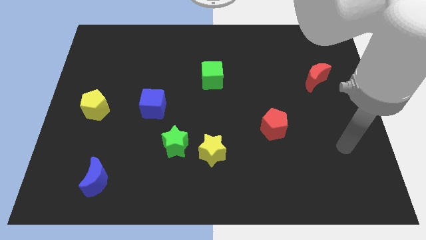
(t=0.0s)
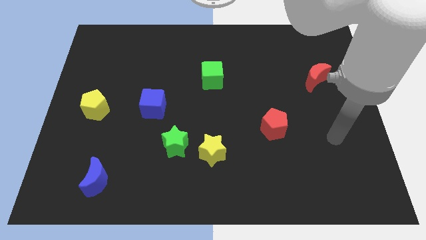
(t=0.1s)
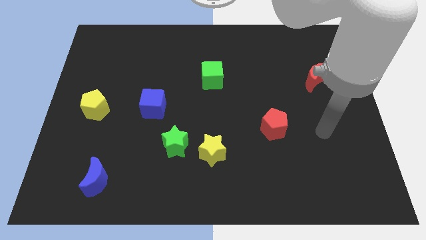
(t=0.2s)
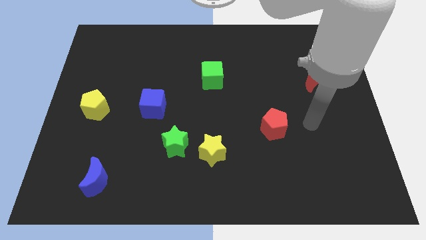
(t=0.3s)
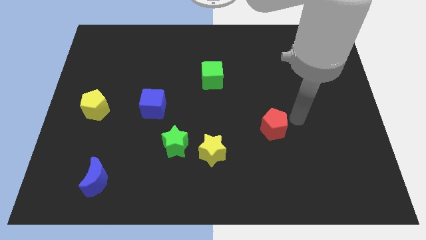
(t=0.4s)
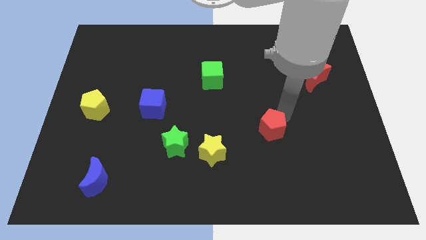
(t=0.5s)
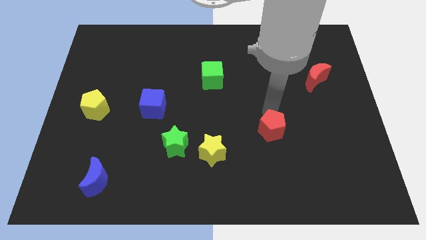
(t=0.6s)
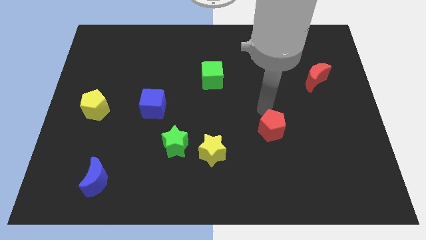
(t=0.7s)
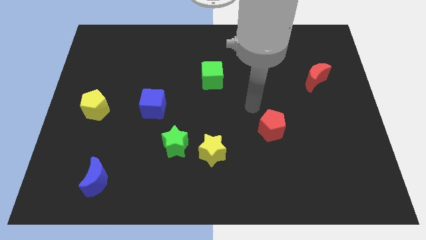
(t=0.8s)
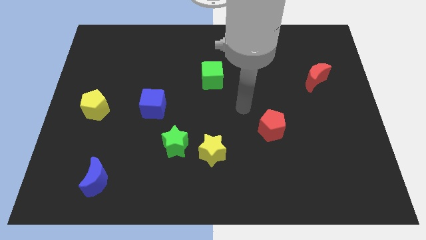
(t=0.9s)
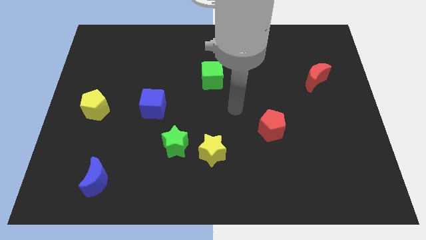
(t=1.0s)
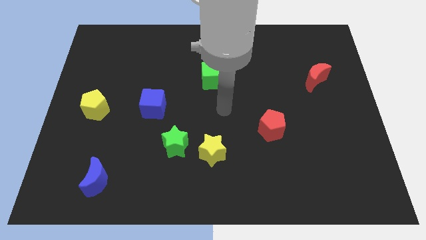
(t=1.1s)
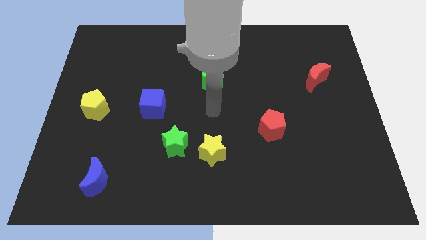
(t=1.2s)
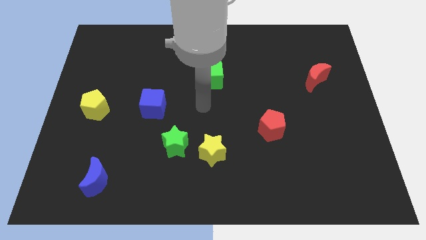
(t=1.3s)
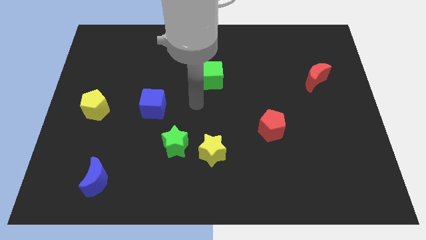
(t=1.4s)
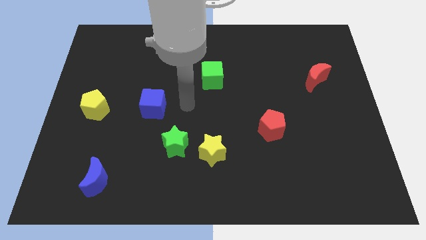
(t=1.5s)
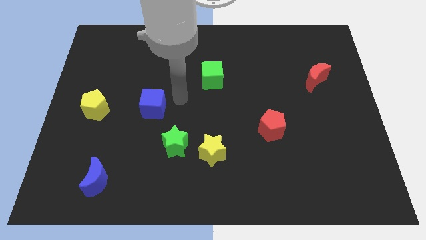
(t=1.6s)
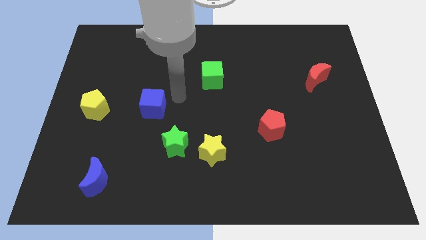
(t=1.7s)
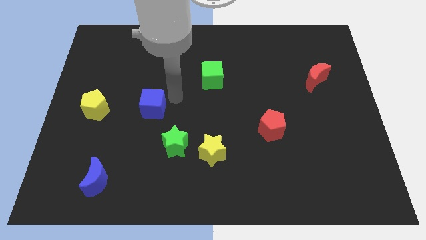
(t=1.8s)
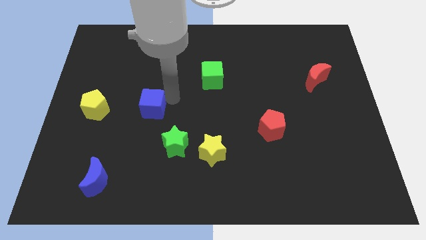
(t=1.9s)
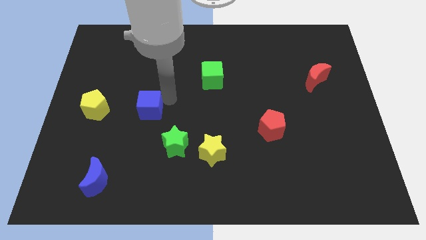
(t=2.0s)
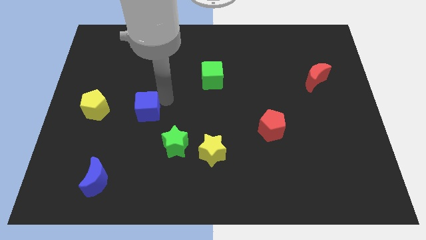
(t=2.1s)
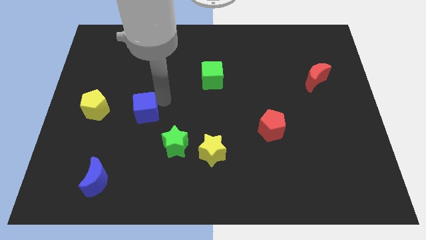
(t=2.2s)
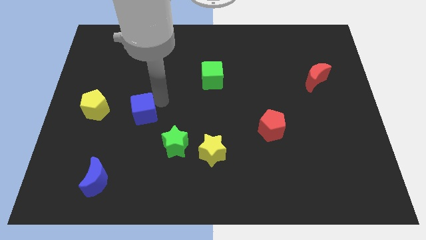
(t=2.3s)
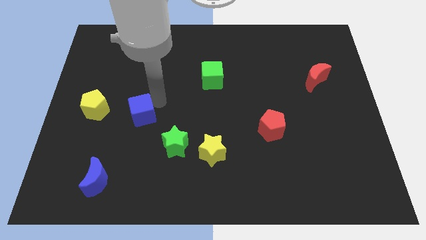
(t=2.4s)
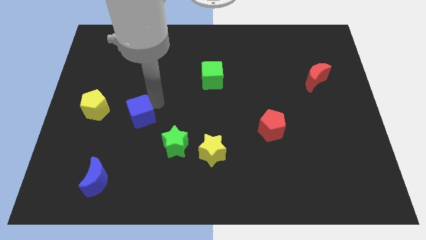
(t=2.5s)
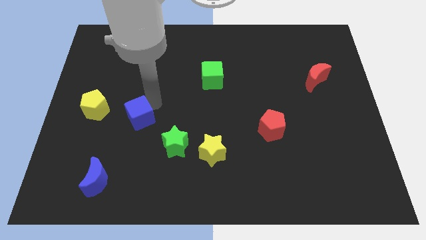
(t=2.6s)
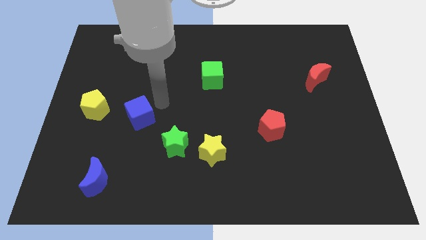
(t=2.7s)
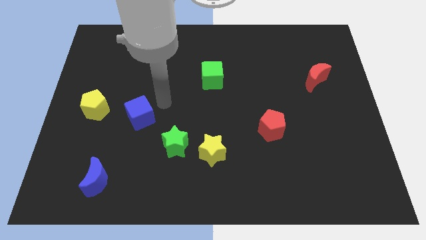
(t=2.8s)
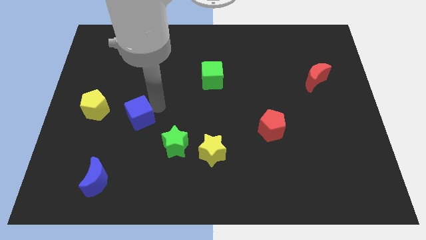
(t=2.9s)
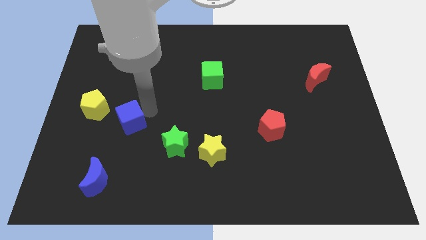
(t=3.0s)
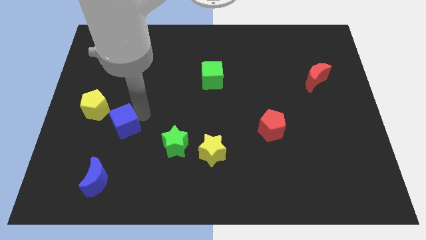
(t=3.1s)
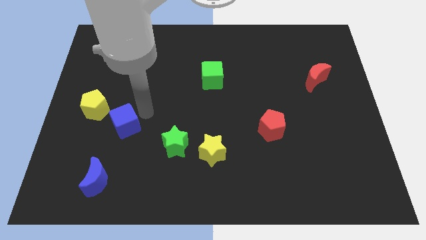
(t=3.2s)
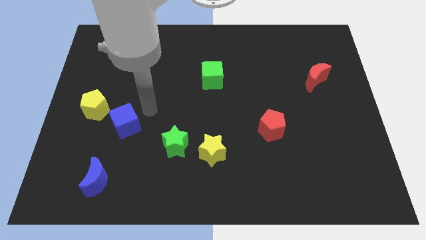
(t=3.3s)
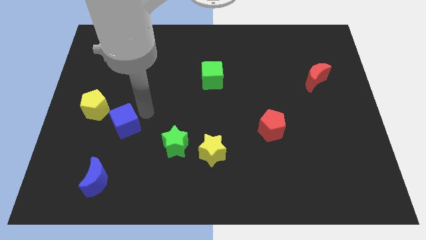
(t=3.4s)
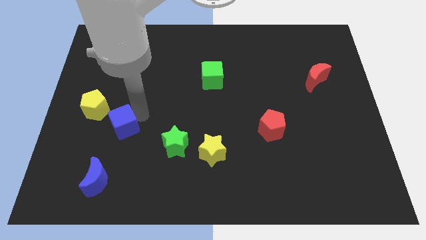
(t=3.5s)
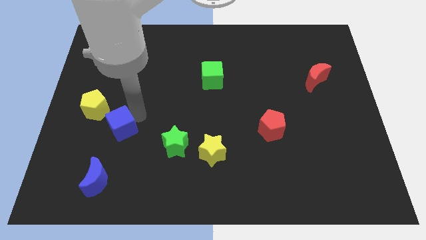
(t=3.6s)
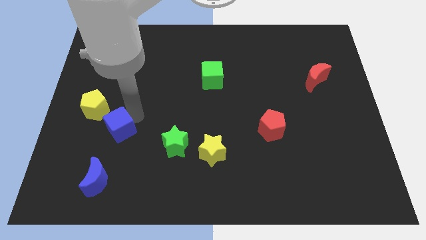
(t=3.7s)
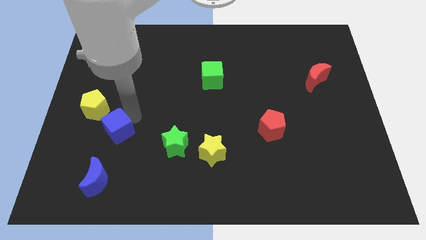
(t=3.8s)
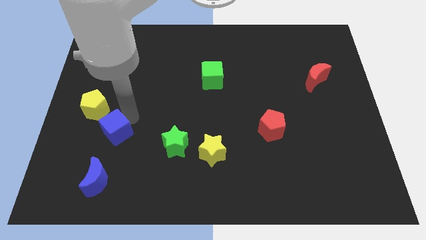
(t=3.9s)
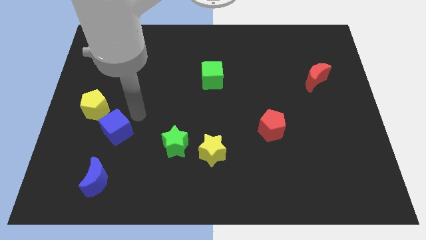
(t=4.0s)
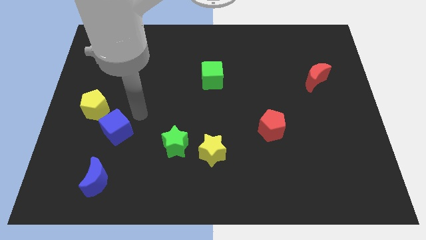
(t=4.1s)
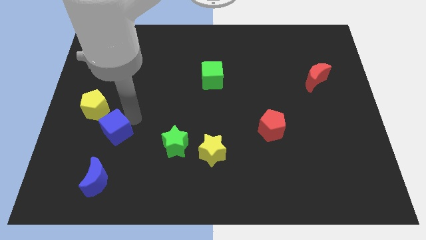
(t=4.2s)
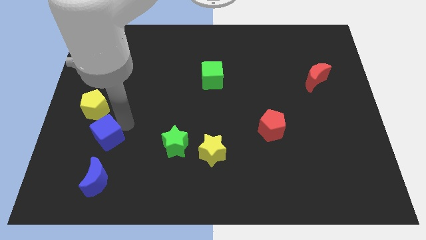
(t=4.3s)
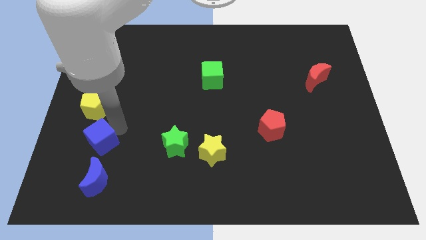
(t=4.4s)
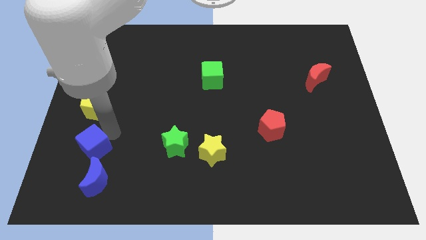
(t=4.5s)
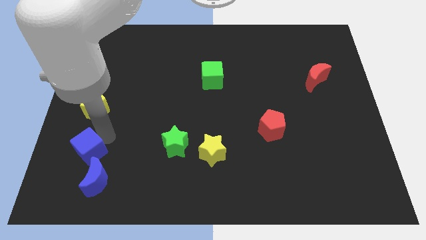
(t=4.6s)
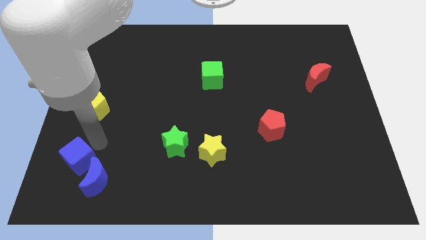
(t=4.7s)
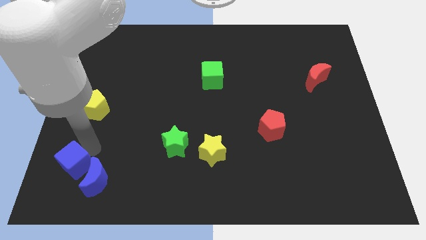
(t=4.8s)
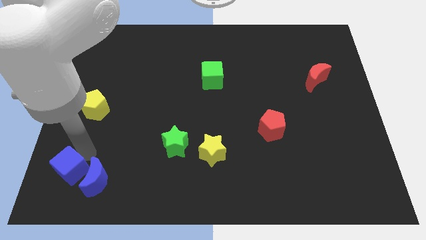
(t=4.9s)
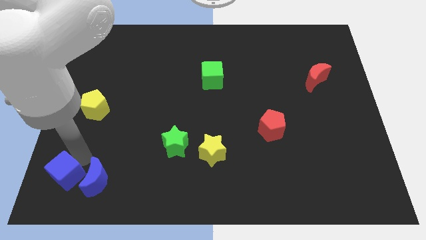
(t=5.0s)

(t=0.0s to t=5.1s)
move the blue cube to the lower left corner

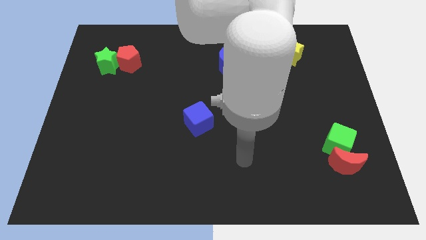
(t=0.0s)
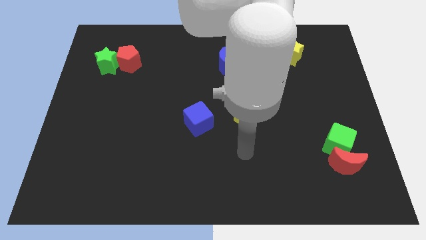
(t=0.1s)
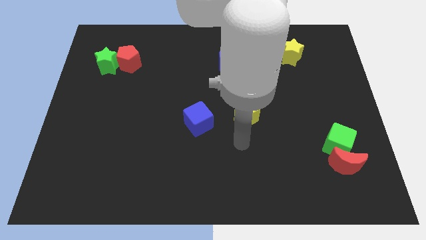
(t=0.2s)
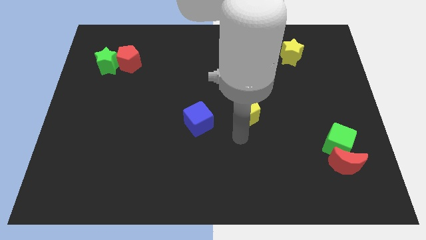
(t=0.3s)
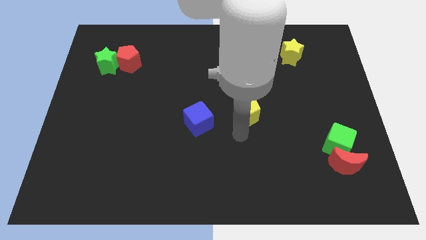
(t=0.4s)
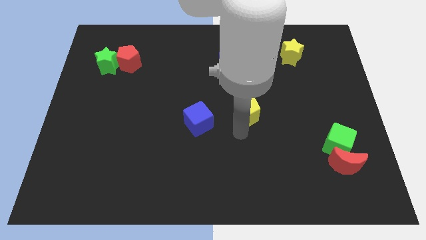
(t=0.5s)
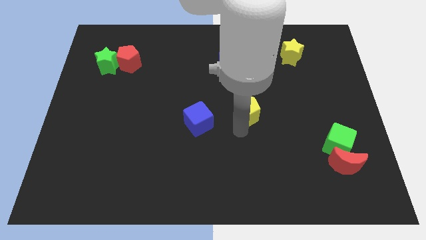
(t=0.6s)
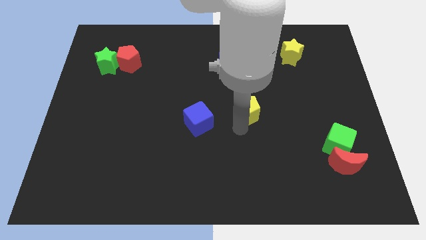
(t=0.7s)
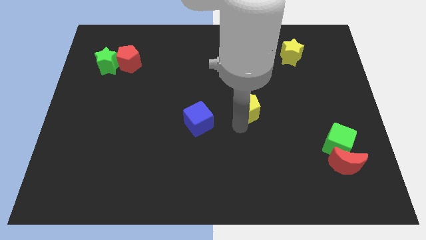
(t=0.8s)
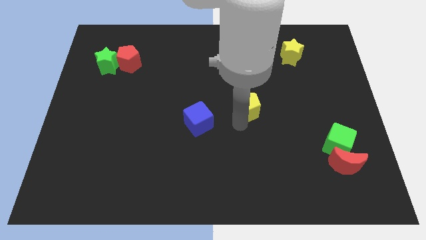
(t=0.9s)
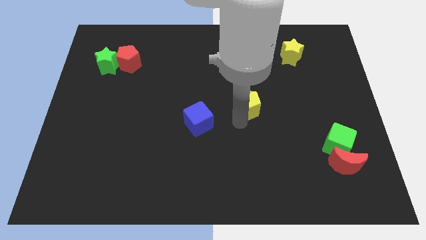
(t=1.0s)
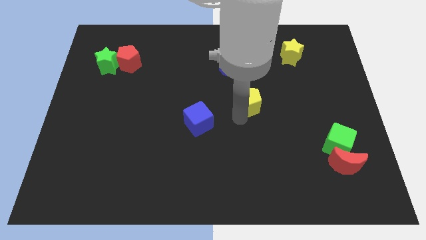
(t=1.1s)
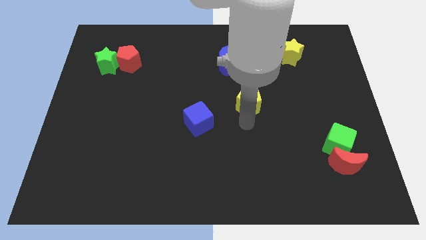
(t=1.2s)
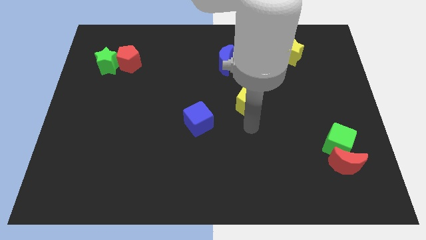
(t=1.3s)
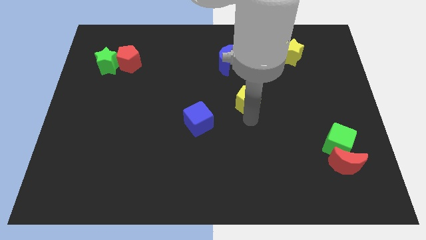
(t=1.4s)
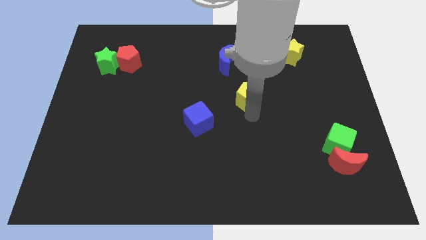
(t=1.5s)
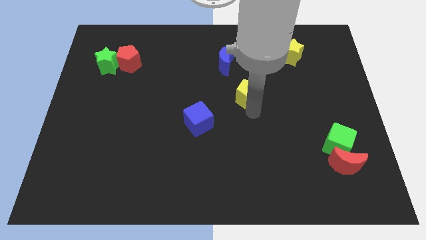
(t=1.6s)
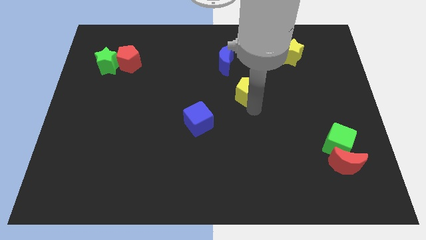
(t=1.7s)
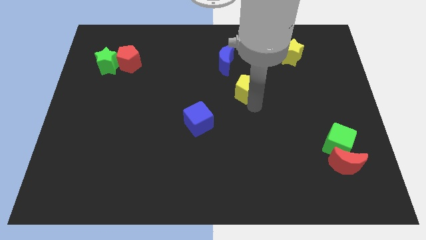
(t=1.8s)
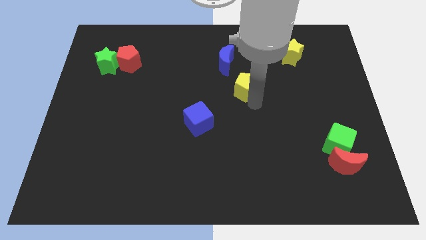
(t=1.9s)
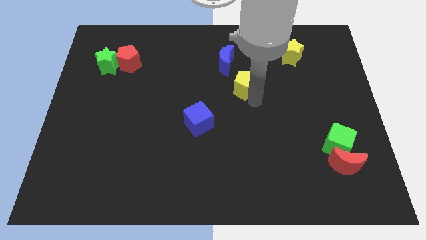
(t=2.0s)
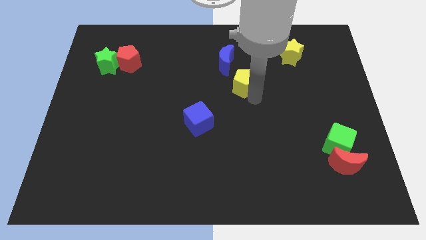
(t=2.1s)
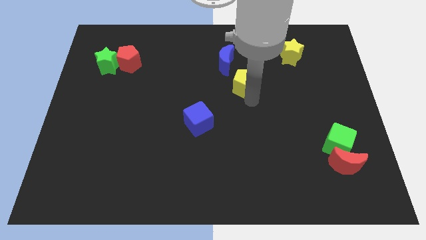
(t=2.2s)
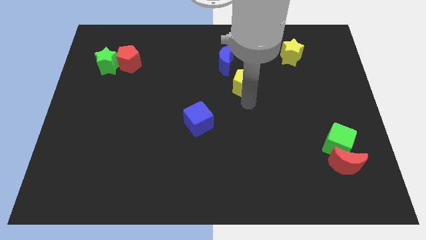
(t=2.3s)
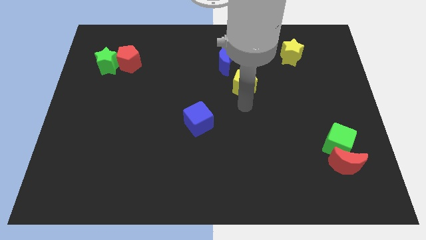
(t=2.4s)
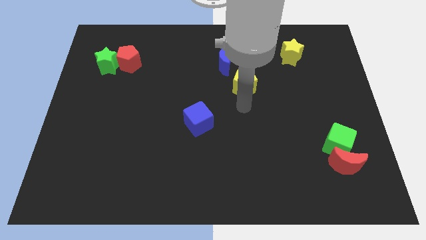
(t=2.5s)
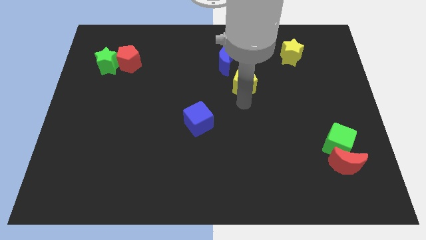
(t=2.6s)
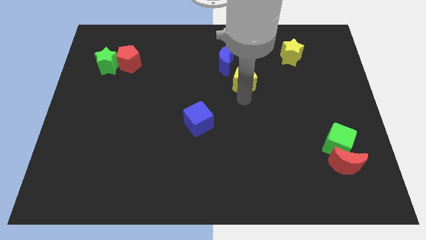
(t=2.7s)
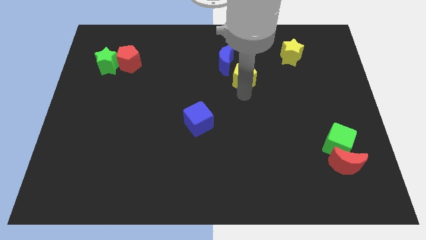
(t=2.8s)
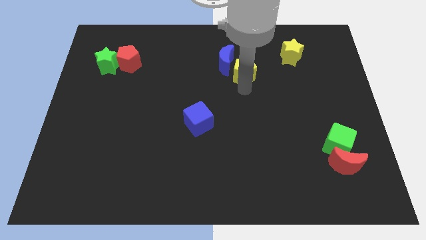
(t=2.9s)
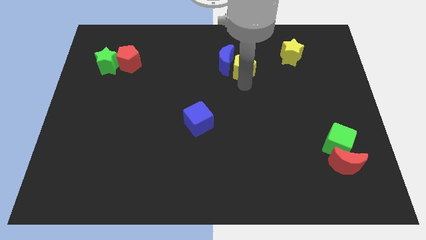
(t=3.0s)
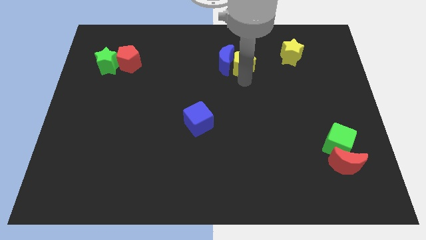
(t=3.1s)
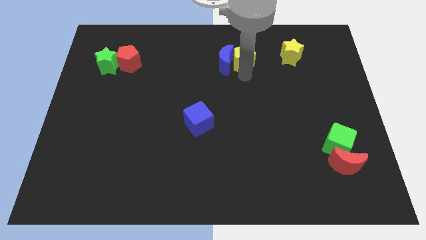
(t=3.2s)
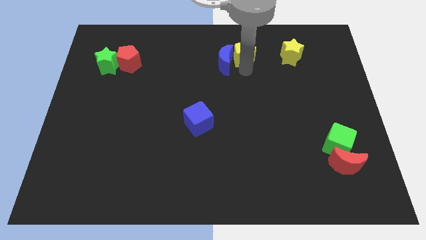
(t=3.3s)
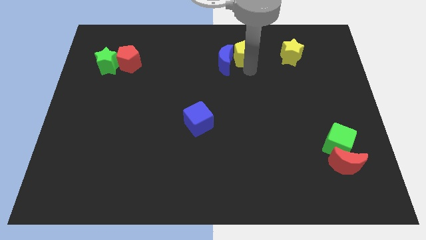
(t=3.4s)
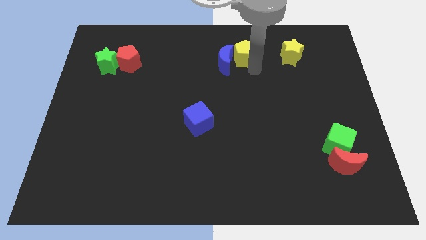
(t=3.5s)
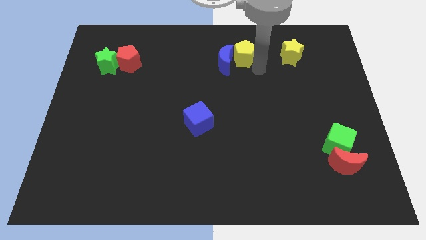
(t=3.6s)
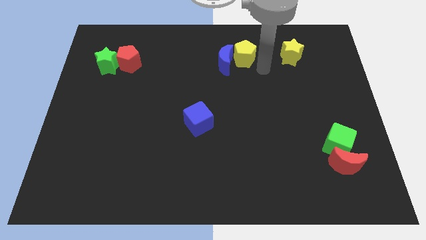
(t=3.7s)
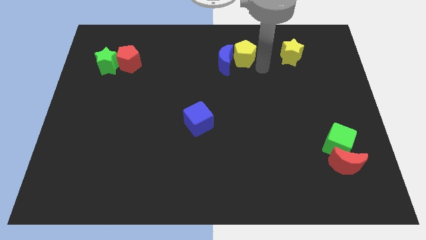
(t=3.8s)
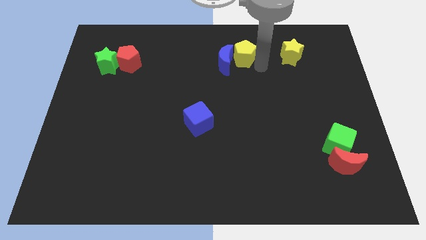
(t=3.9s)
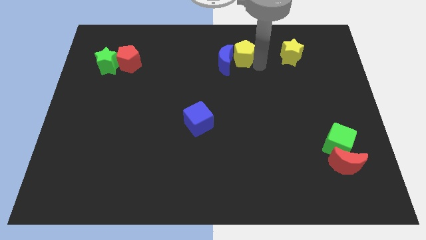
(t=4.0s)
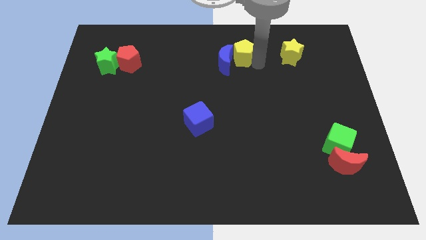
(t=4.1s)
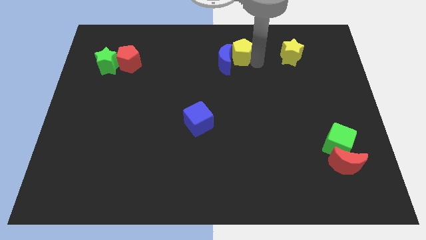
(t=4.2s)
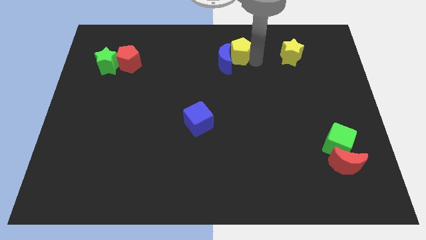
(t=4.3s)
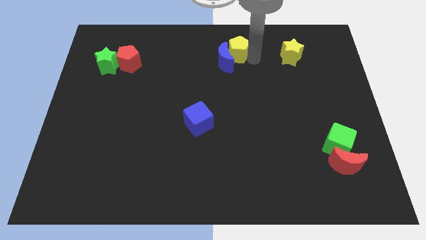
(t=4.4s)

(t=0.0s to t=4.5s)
slide the yellow pentagon to the towards your base
